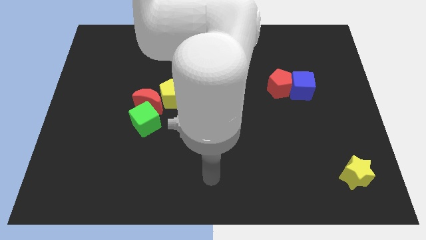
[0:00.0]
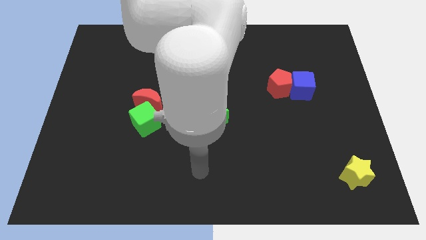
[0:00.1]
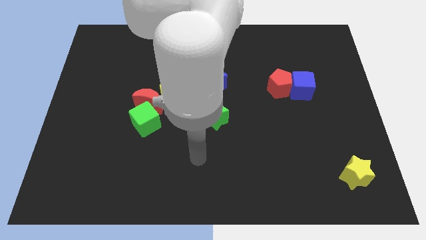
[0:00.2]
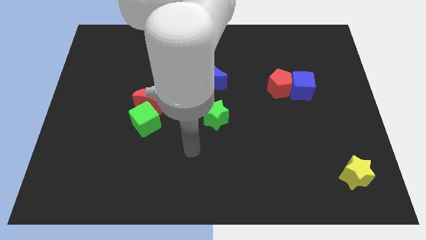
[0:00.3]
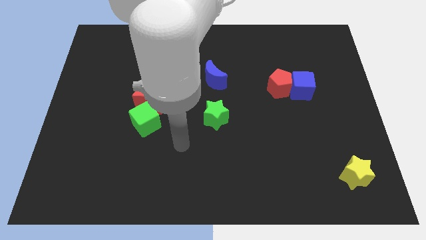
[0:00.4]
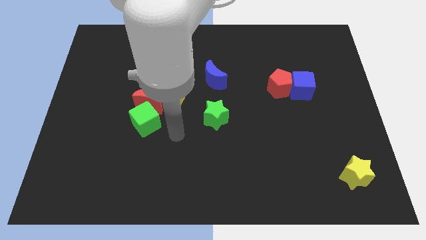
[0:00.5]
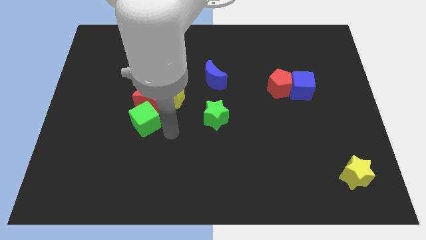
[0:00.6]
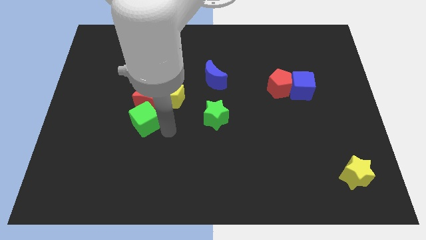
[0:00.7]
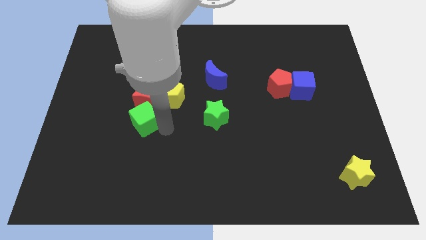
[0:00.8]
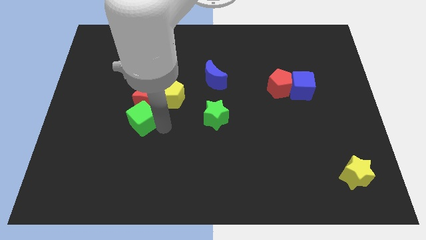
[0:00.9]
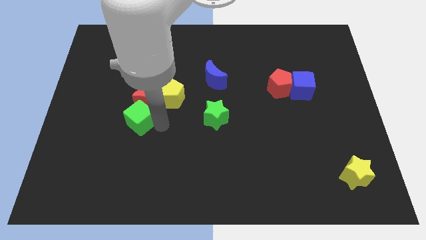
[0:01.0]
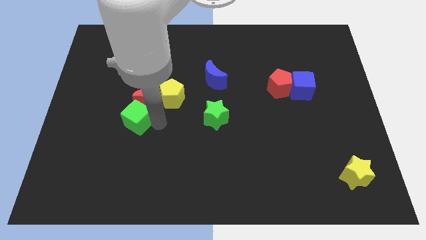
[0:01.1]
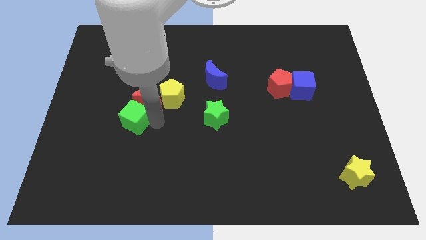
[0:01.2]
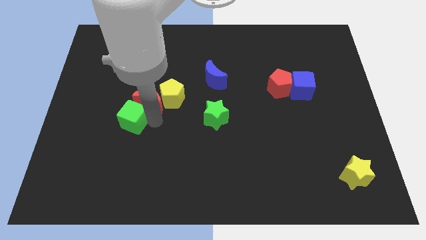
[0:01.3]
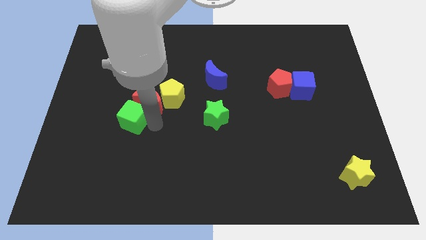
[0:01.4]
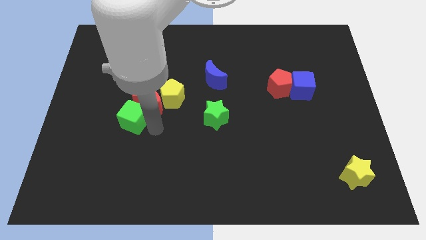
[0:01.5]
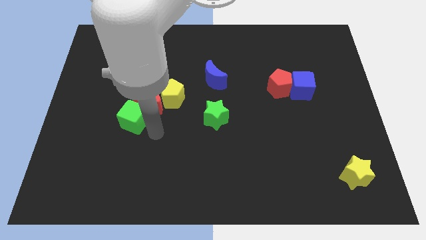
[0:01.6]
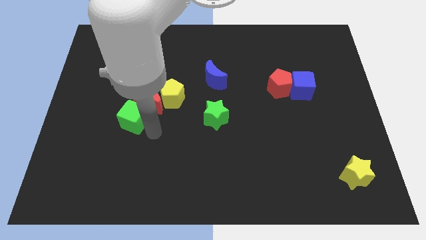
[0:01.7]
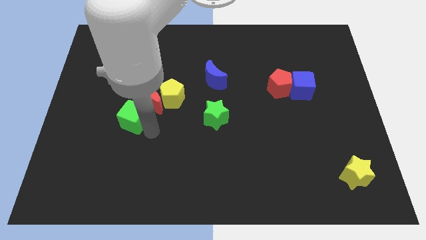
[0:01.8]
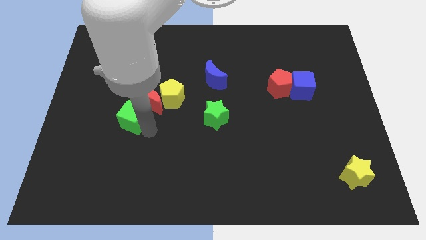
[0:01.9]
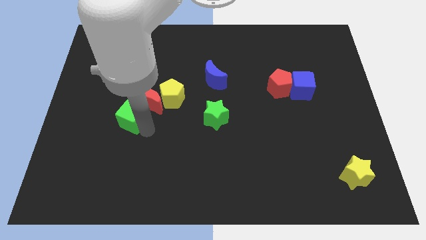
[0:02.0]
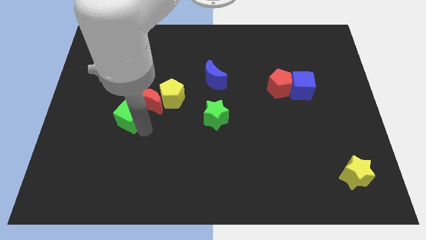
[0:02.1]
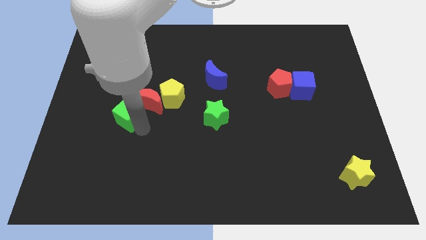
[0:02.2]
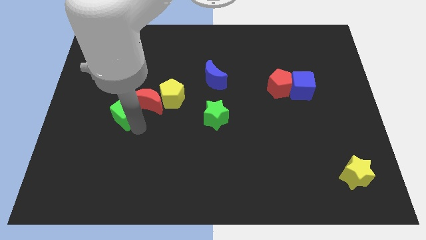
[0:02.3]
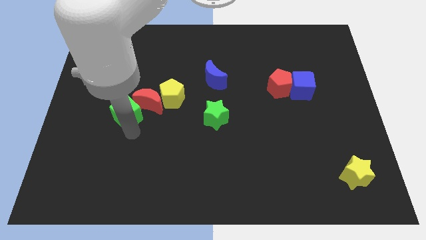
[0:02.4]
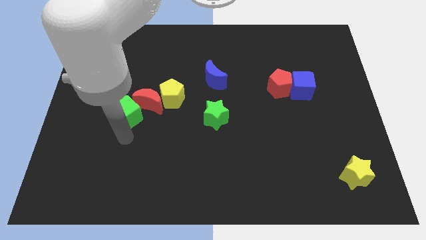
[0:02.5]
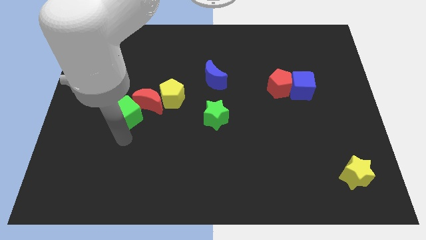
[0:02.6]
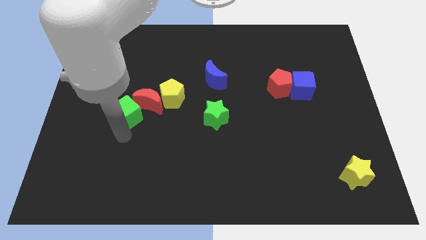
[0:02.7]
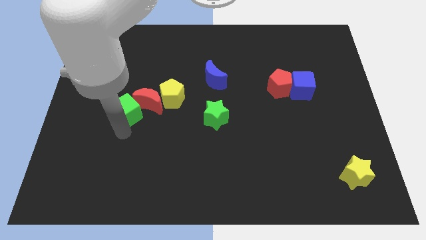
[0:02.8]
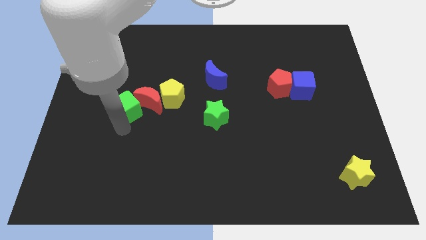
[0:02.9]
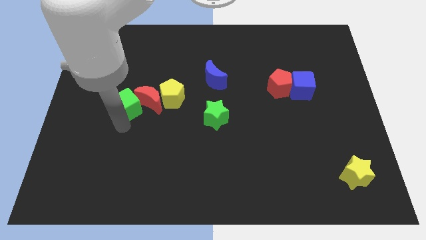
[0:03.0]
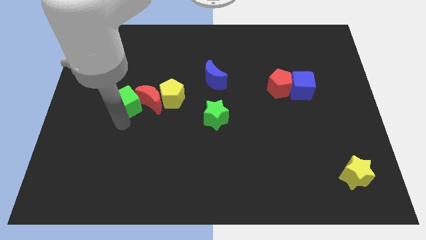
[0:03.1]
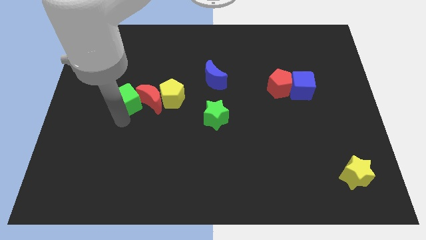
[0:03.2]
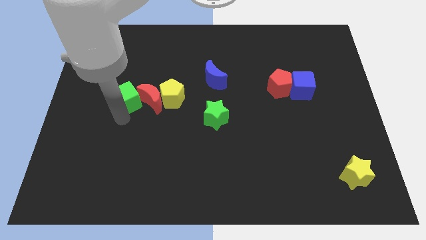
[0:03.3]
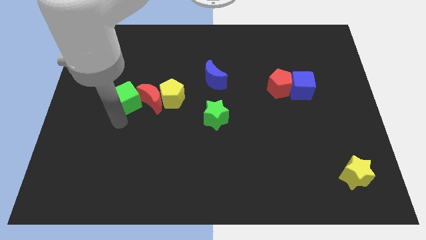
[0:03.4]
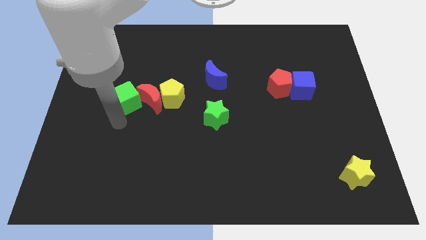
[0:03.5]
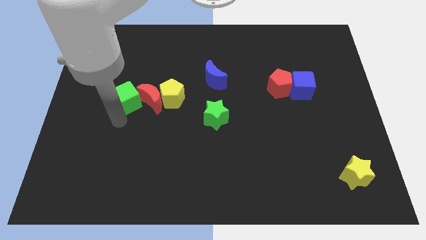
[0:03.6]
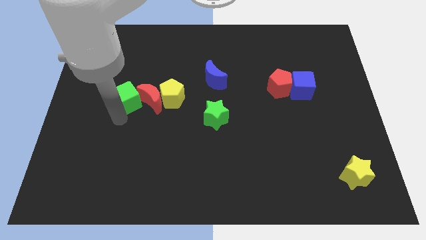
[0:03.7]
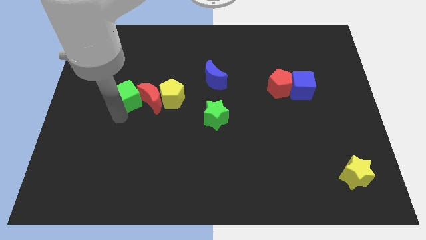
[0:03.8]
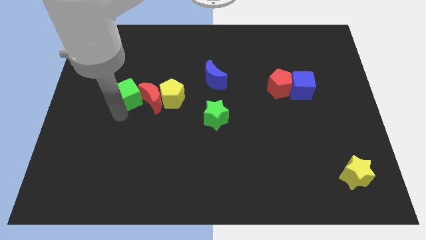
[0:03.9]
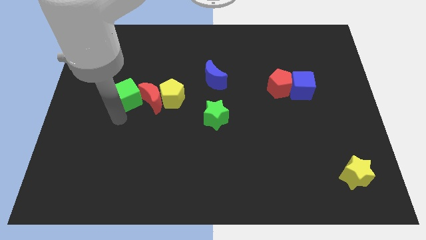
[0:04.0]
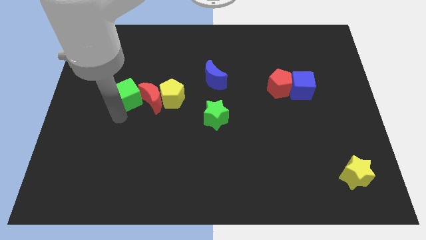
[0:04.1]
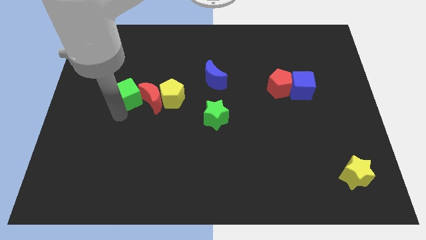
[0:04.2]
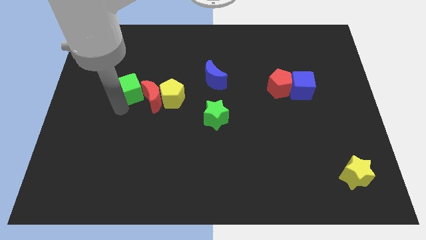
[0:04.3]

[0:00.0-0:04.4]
push the green cube upwards slightly

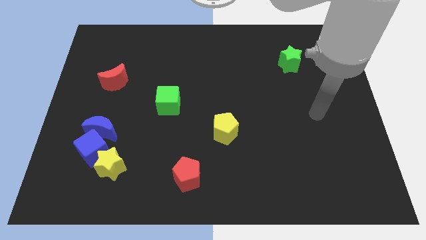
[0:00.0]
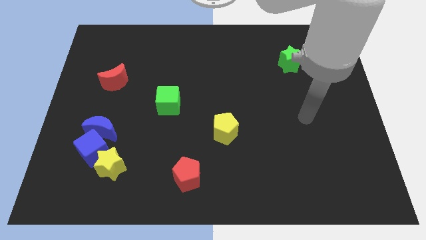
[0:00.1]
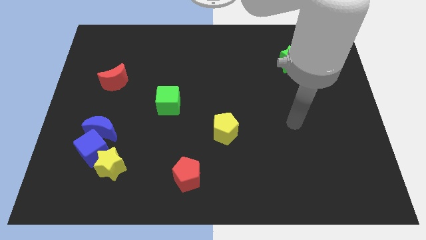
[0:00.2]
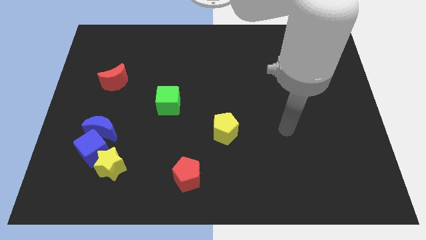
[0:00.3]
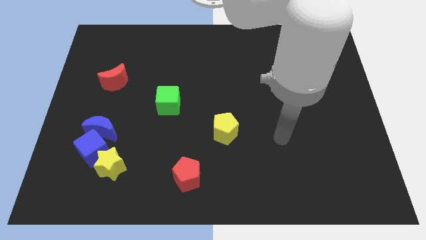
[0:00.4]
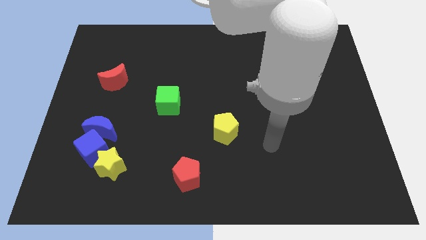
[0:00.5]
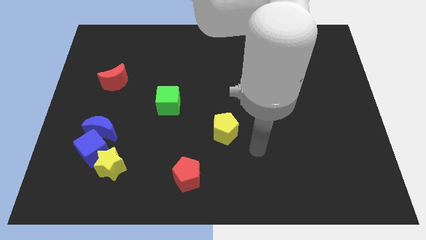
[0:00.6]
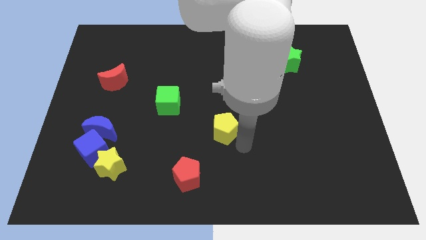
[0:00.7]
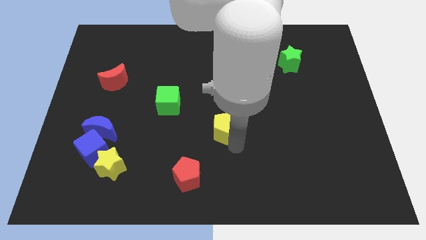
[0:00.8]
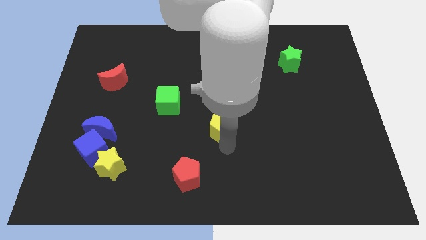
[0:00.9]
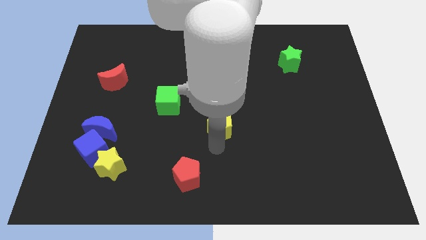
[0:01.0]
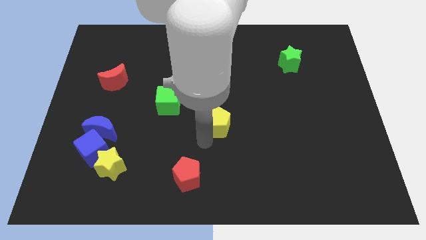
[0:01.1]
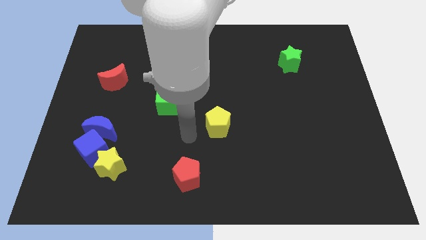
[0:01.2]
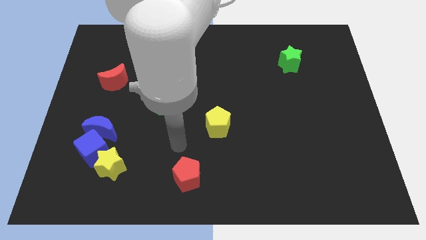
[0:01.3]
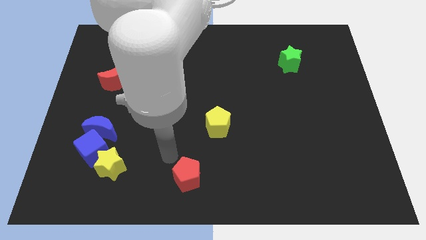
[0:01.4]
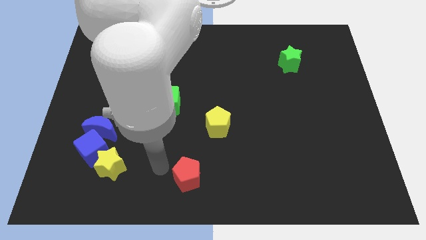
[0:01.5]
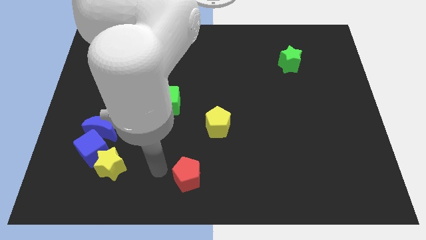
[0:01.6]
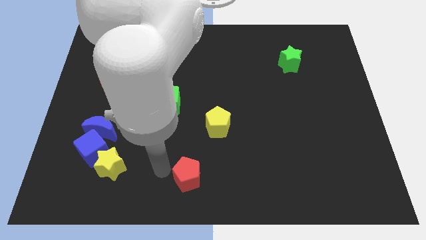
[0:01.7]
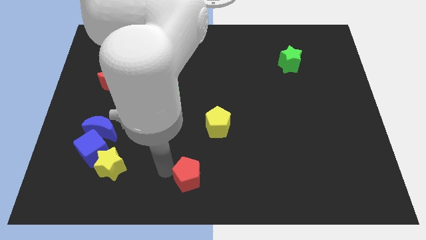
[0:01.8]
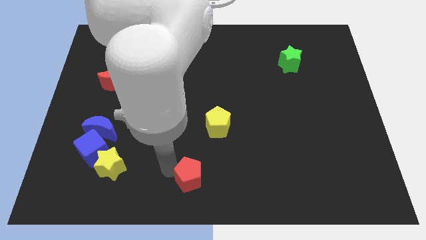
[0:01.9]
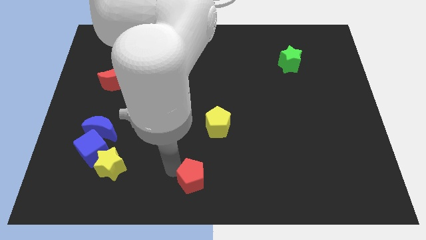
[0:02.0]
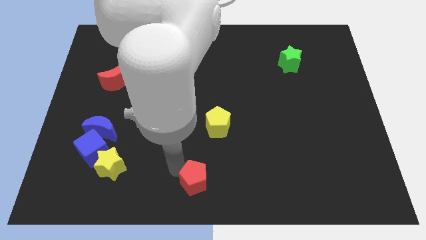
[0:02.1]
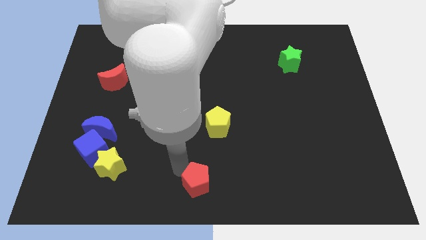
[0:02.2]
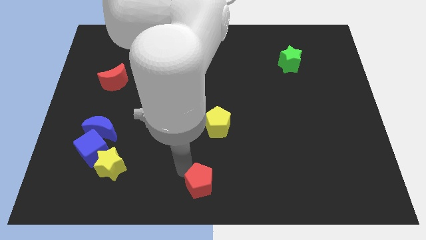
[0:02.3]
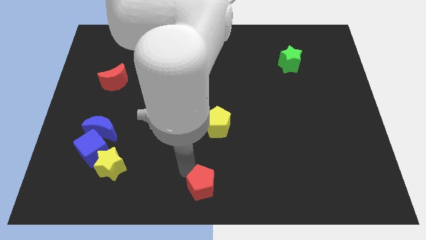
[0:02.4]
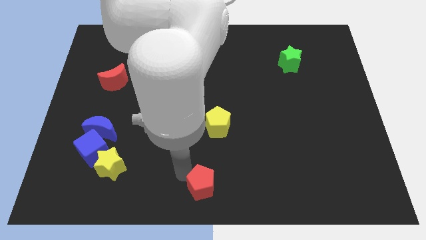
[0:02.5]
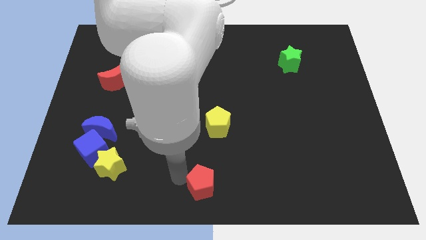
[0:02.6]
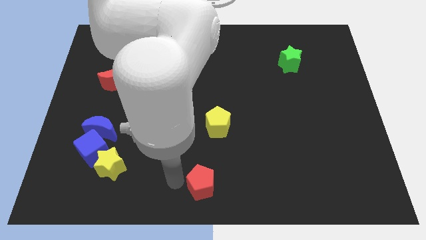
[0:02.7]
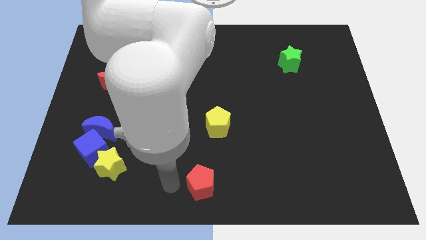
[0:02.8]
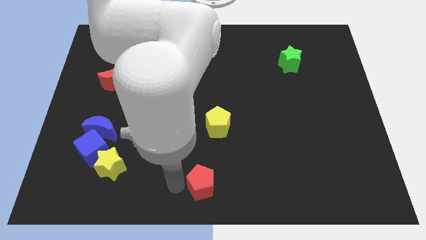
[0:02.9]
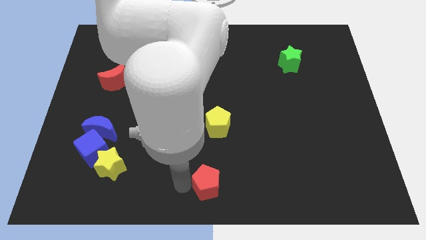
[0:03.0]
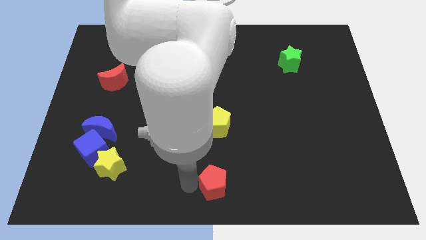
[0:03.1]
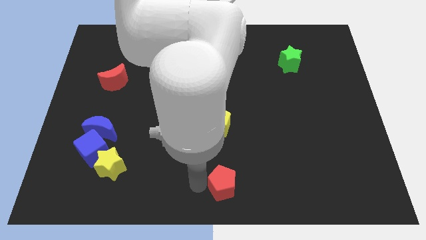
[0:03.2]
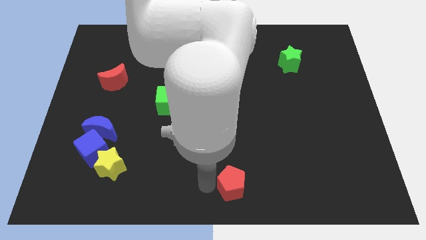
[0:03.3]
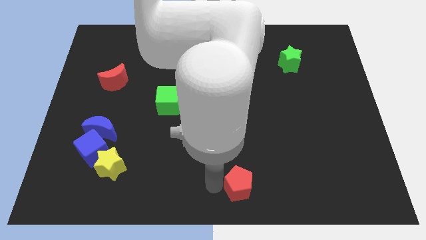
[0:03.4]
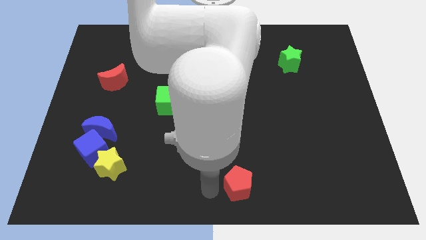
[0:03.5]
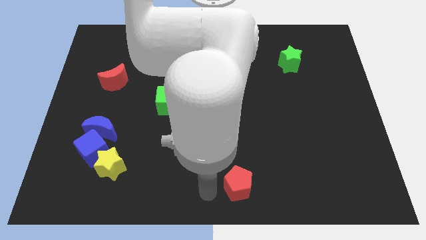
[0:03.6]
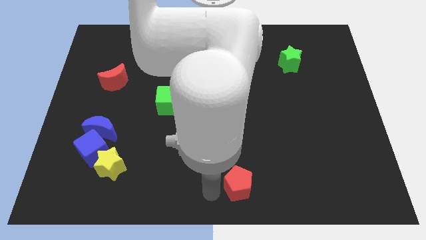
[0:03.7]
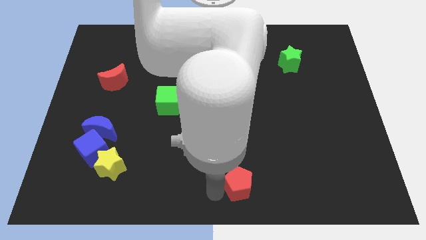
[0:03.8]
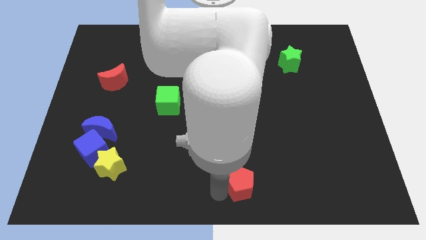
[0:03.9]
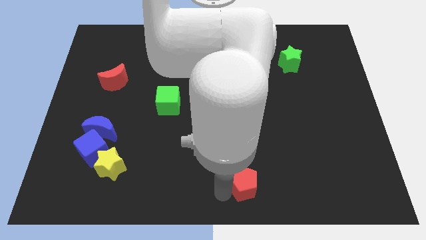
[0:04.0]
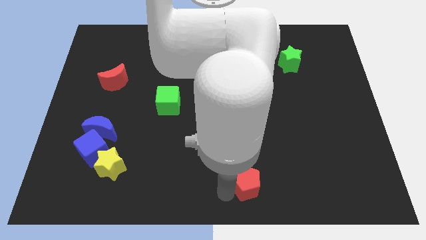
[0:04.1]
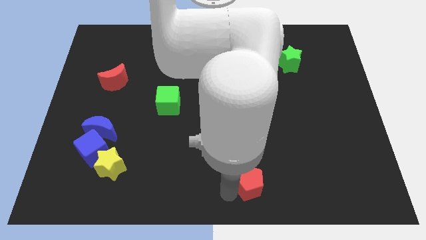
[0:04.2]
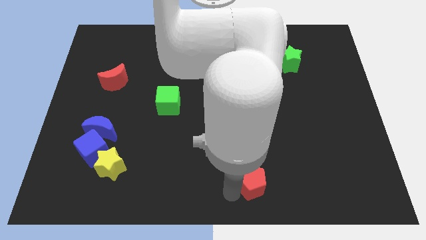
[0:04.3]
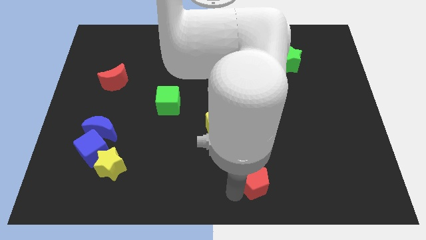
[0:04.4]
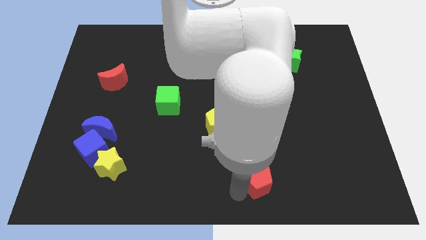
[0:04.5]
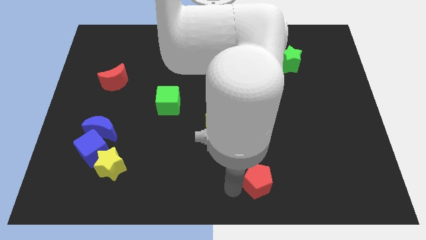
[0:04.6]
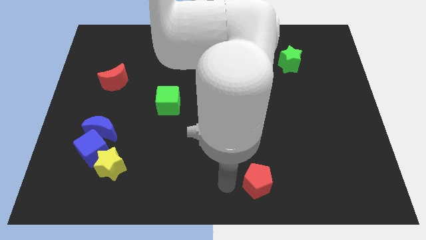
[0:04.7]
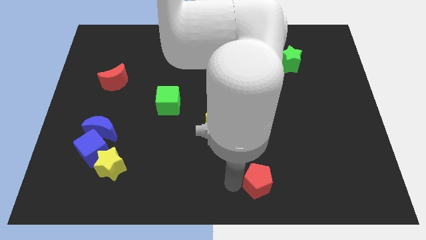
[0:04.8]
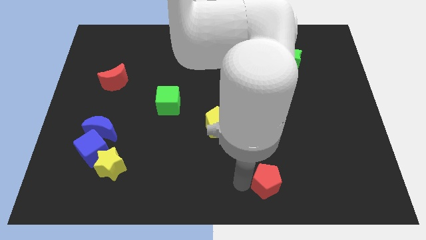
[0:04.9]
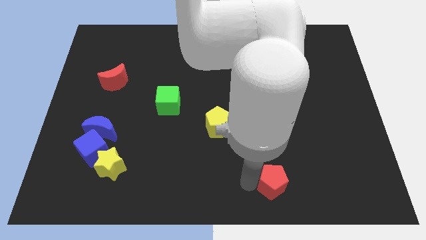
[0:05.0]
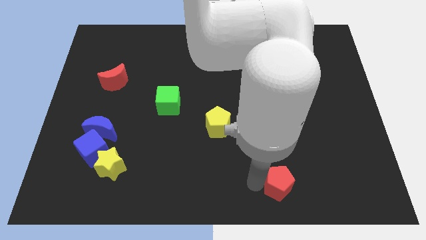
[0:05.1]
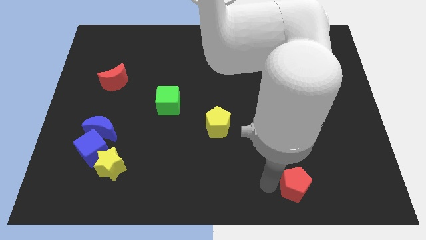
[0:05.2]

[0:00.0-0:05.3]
move the red pentagon right
